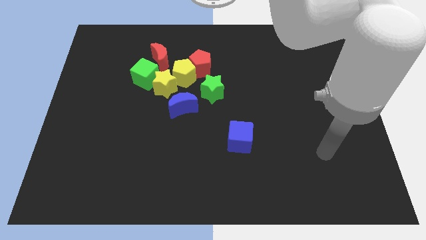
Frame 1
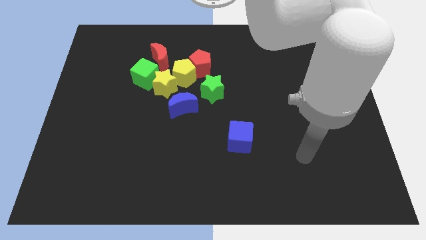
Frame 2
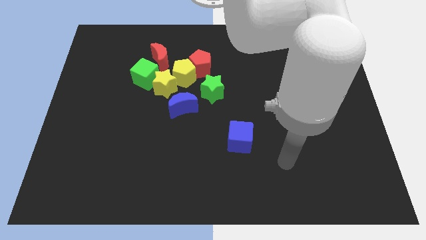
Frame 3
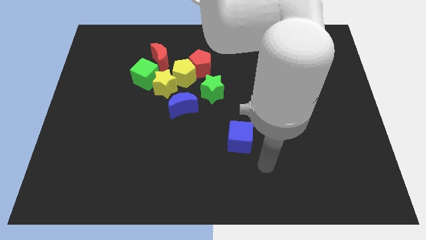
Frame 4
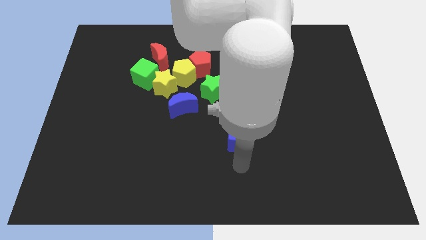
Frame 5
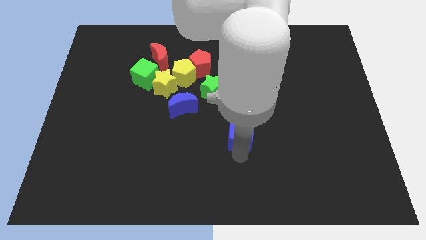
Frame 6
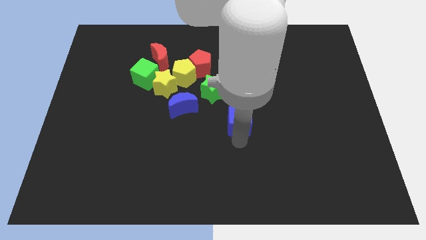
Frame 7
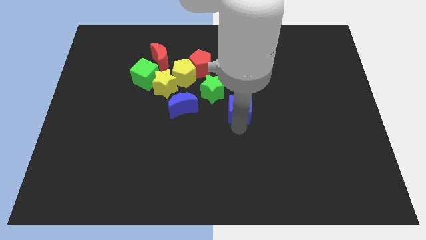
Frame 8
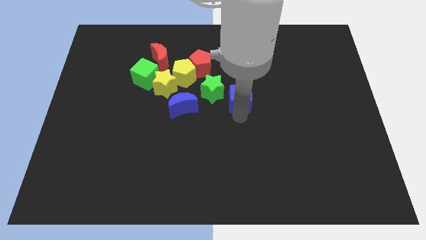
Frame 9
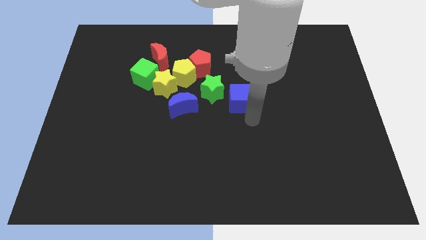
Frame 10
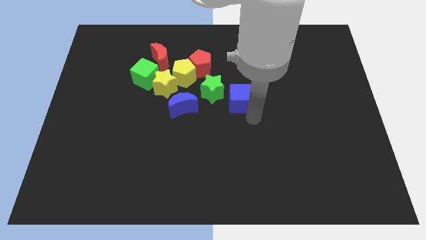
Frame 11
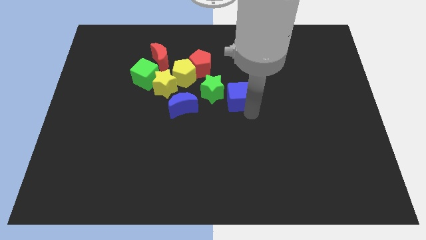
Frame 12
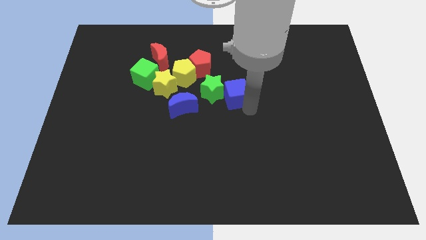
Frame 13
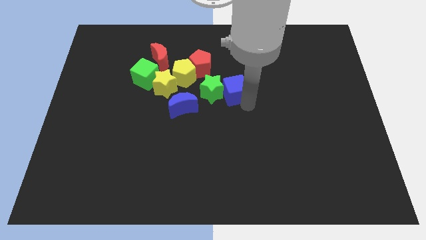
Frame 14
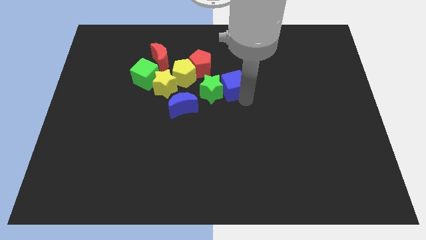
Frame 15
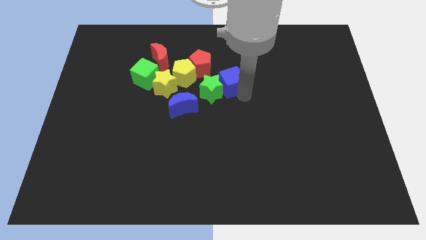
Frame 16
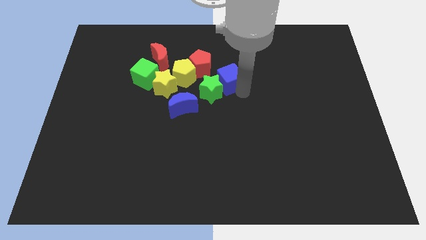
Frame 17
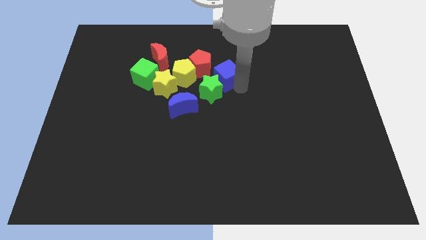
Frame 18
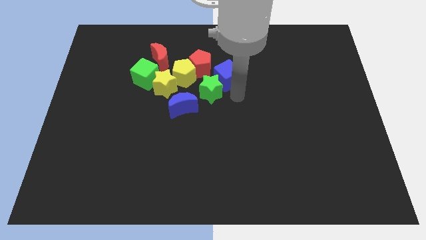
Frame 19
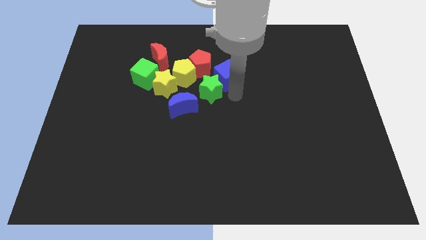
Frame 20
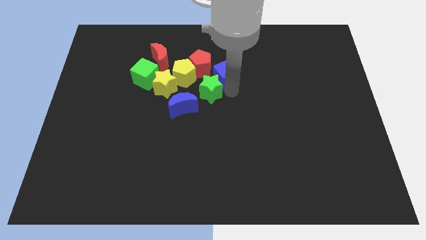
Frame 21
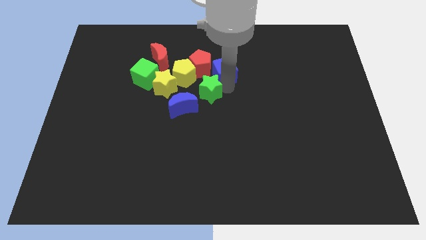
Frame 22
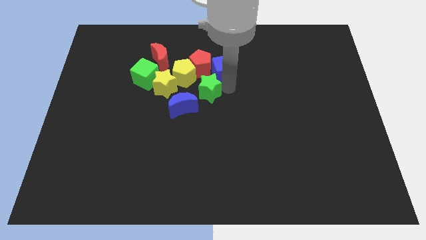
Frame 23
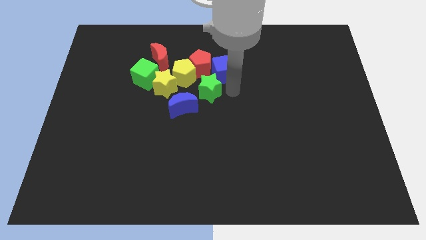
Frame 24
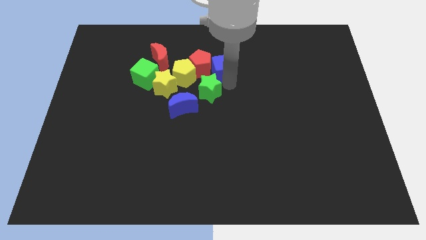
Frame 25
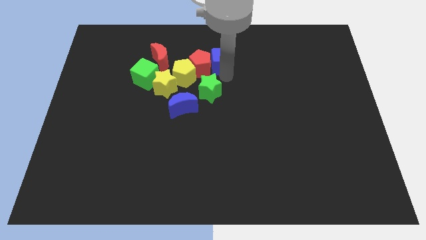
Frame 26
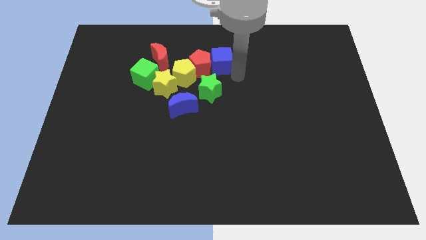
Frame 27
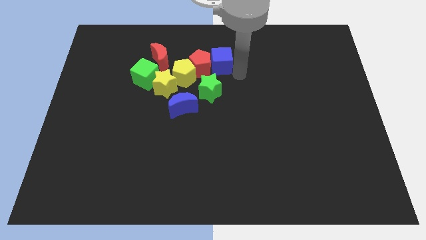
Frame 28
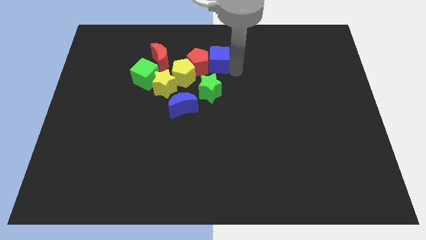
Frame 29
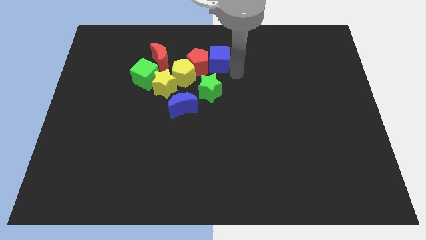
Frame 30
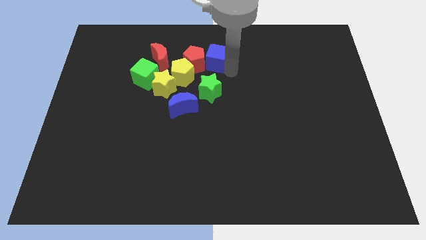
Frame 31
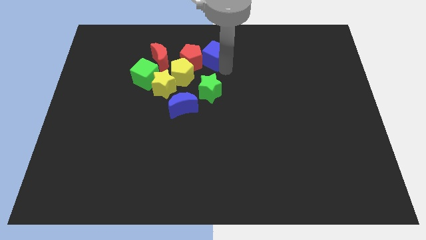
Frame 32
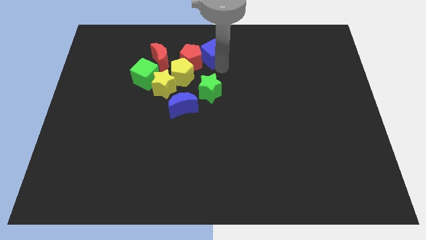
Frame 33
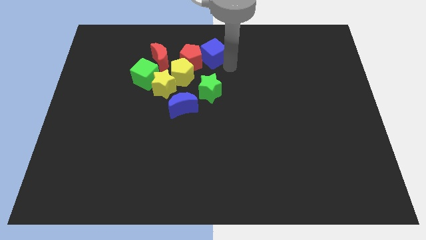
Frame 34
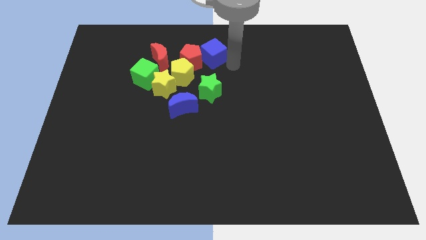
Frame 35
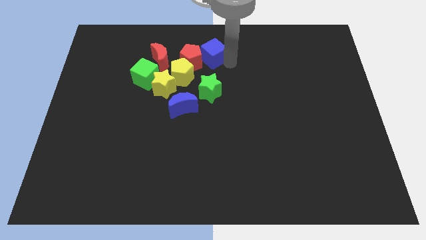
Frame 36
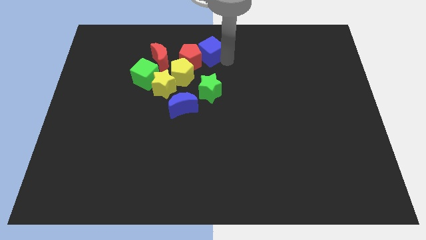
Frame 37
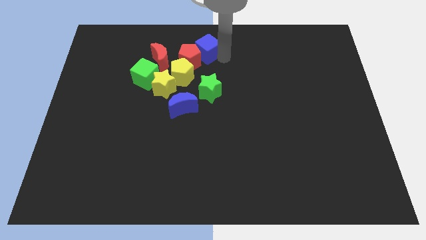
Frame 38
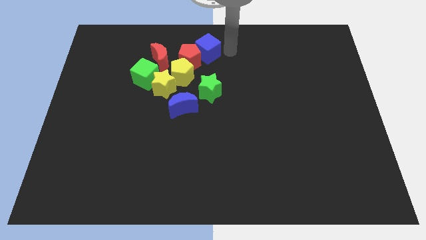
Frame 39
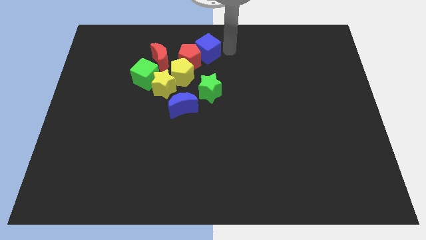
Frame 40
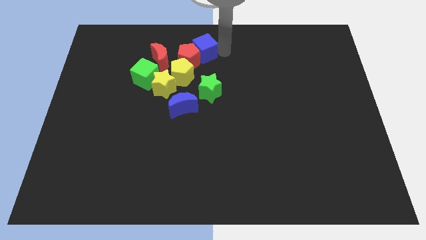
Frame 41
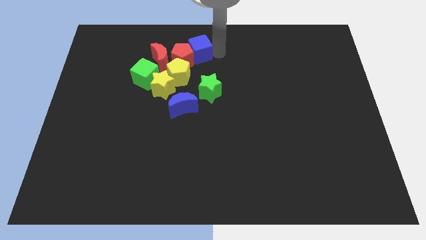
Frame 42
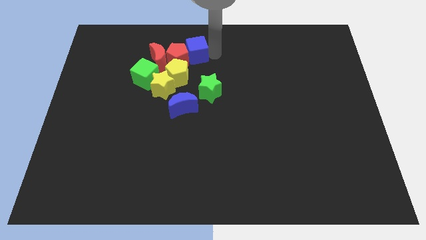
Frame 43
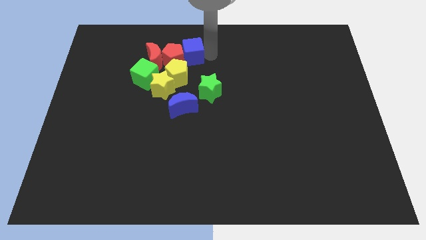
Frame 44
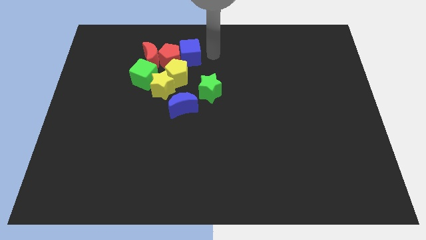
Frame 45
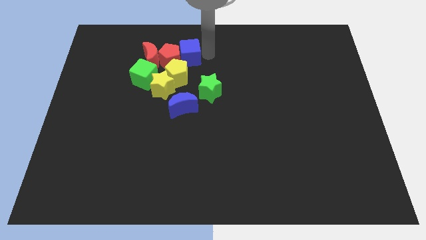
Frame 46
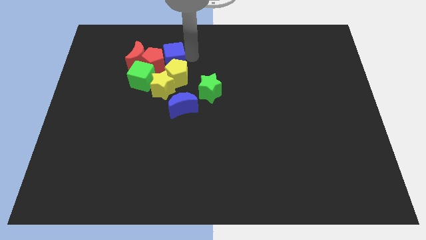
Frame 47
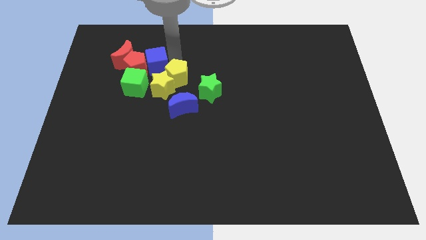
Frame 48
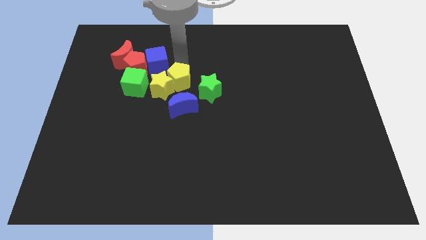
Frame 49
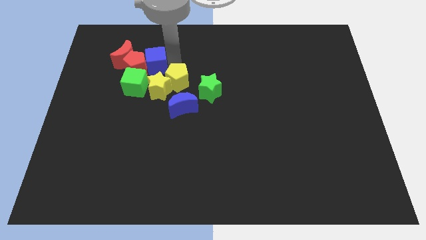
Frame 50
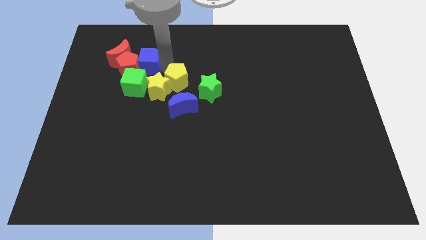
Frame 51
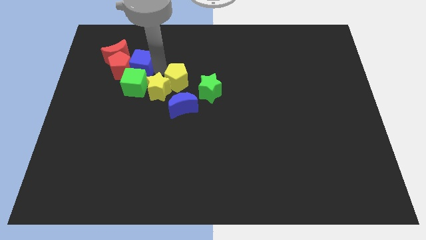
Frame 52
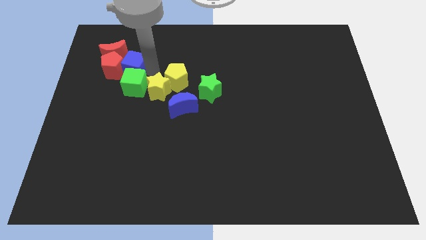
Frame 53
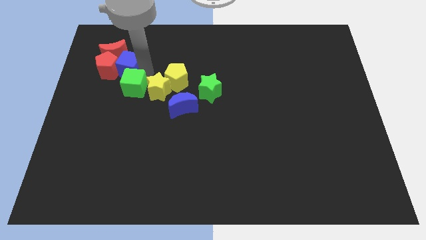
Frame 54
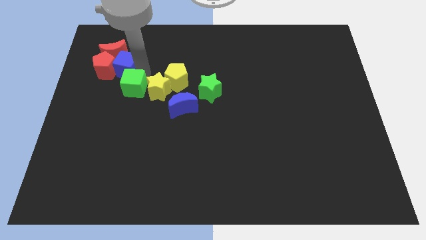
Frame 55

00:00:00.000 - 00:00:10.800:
push the blue cube towards the red moon

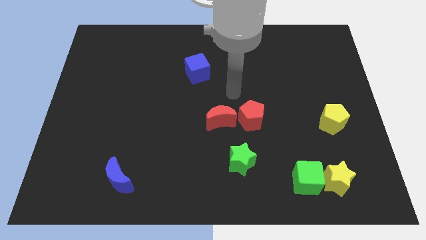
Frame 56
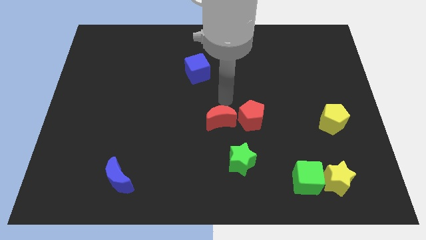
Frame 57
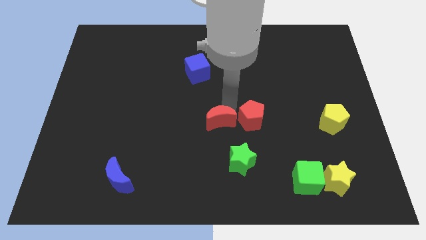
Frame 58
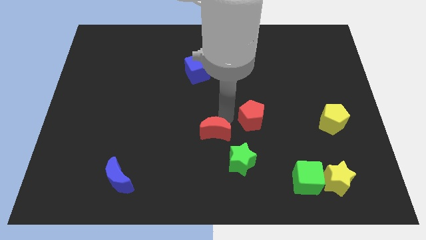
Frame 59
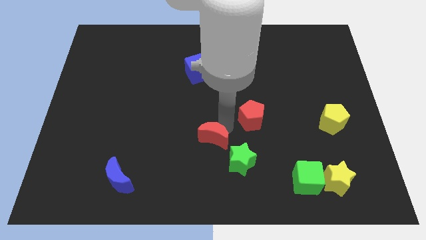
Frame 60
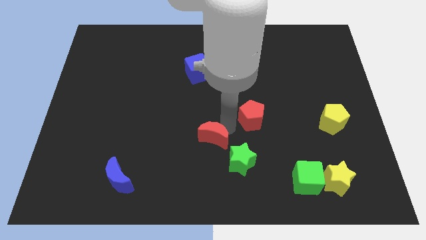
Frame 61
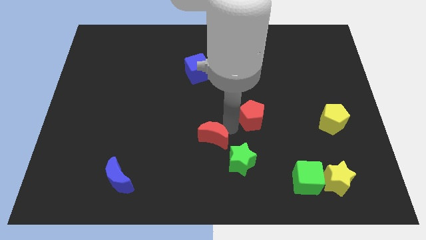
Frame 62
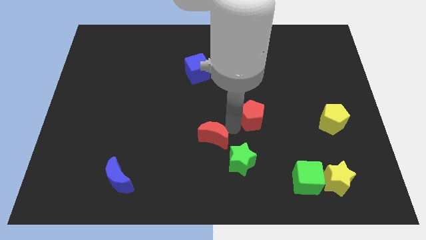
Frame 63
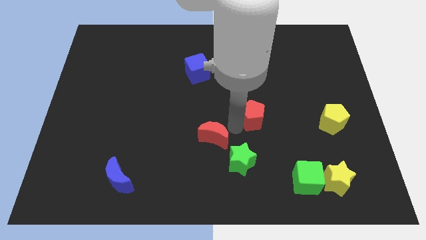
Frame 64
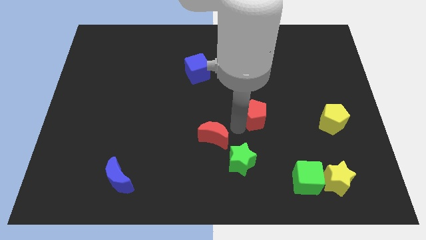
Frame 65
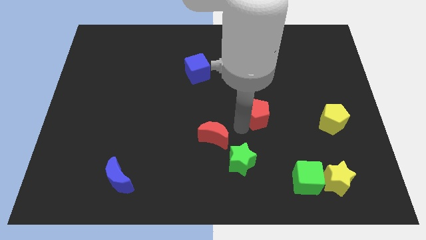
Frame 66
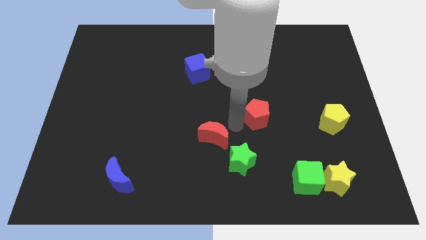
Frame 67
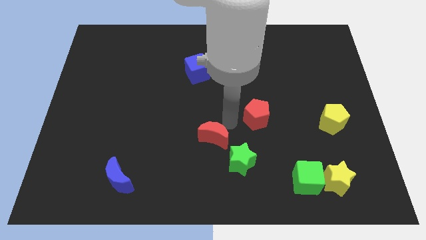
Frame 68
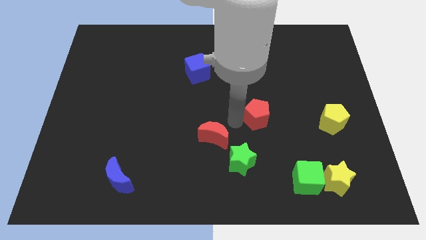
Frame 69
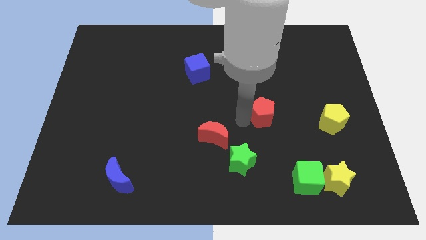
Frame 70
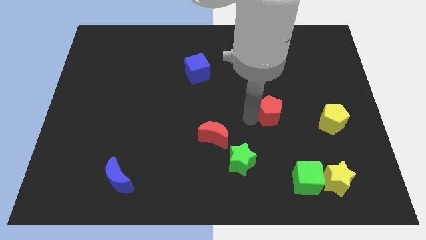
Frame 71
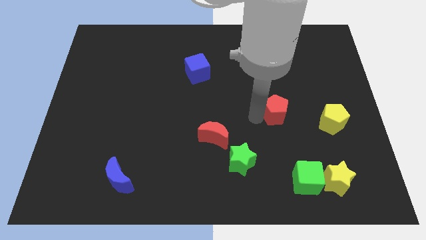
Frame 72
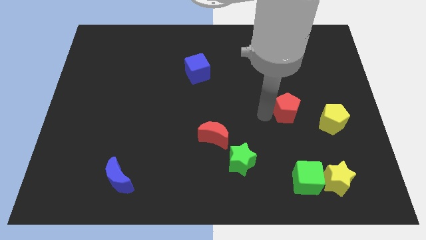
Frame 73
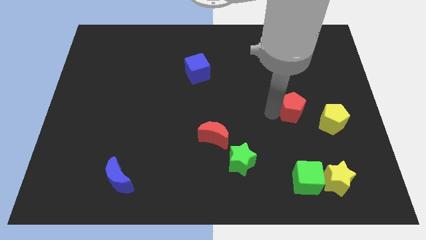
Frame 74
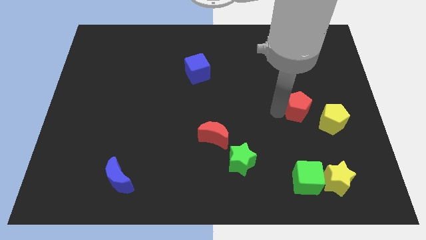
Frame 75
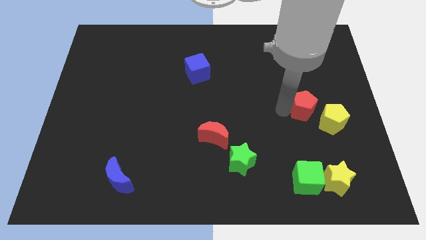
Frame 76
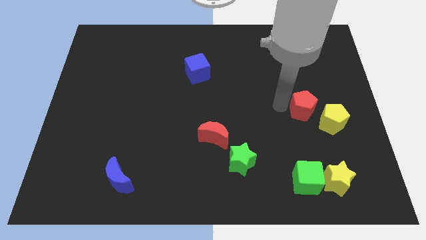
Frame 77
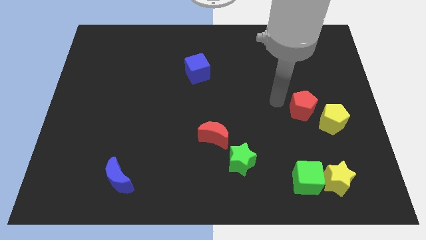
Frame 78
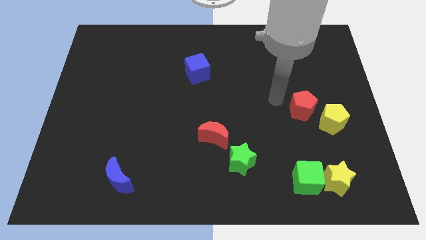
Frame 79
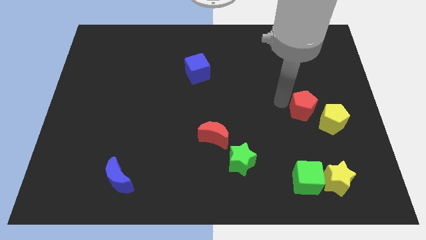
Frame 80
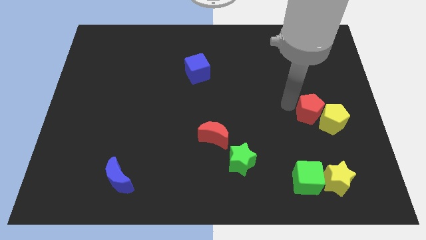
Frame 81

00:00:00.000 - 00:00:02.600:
slide the red pentagon towards the yellow pentagon
